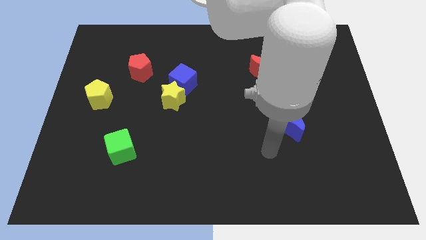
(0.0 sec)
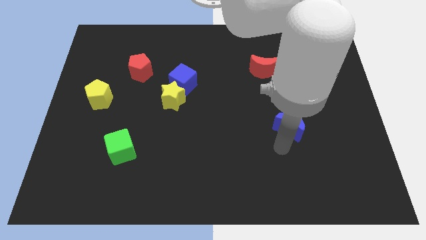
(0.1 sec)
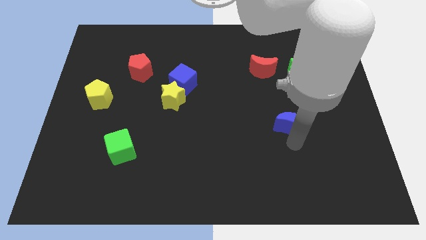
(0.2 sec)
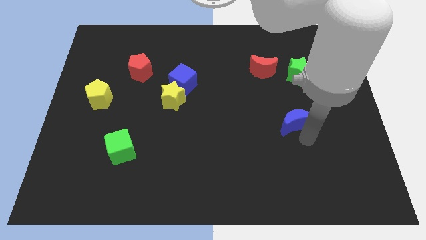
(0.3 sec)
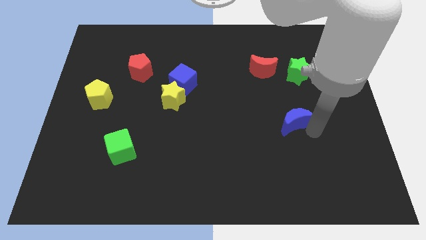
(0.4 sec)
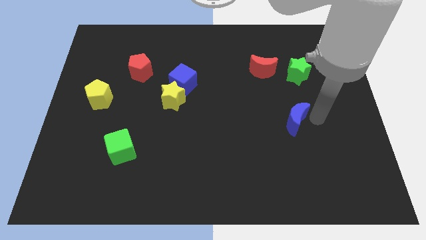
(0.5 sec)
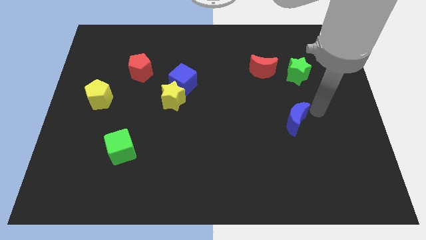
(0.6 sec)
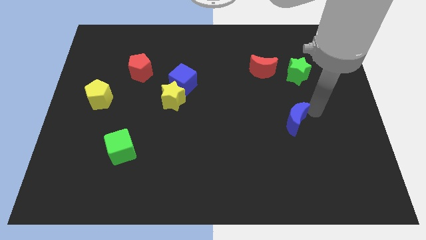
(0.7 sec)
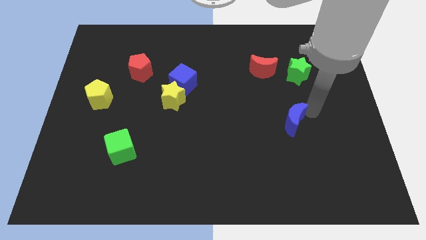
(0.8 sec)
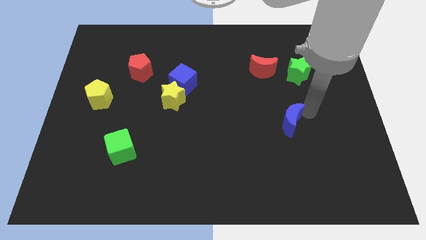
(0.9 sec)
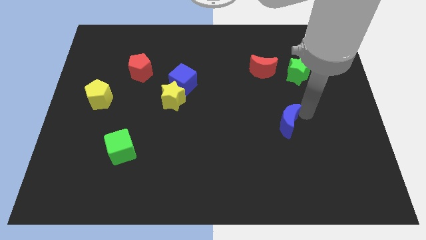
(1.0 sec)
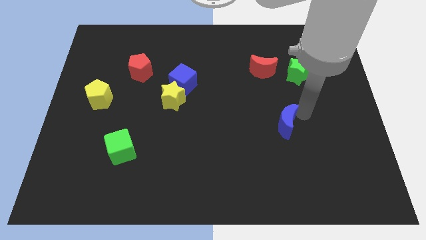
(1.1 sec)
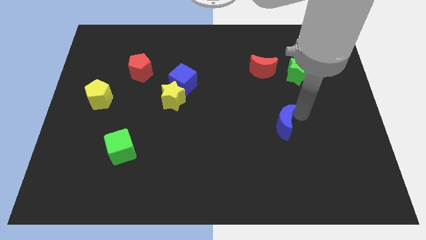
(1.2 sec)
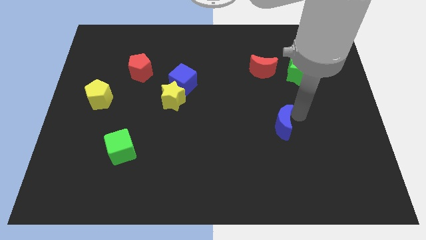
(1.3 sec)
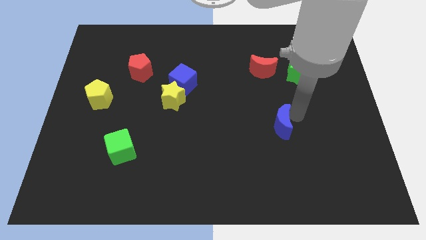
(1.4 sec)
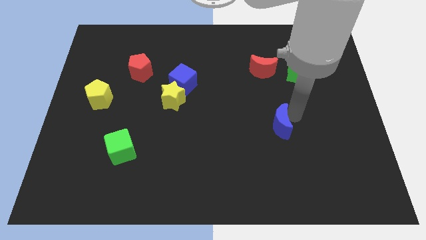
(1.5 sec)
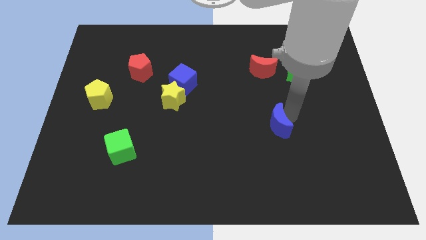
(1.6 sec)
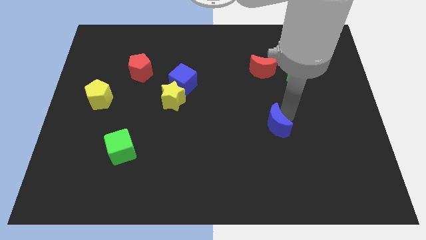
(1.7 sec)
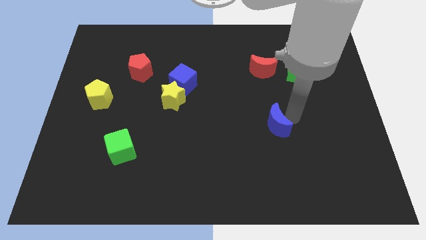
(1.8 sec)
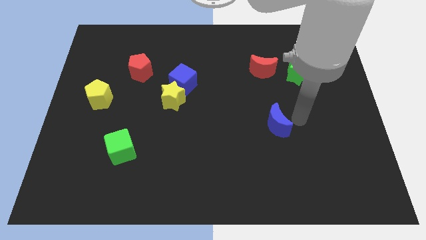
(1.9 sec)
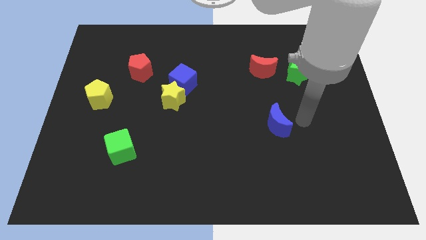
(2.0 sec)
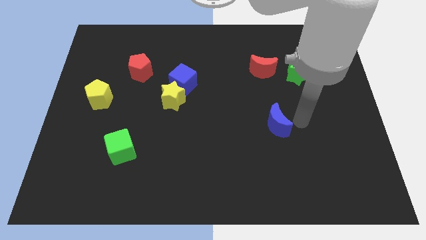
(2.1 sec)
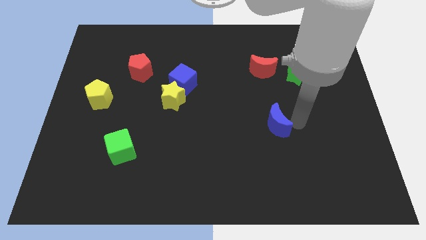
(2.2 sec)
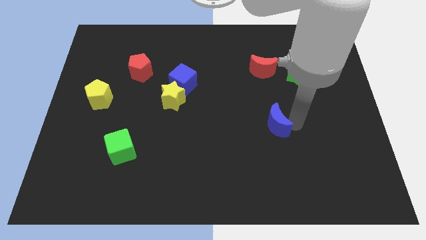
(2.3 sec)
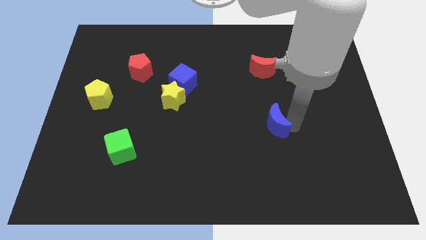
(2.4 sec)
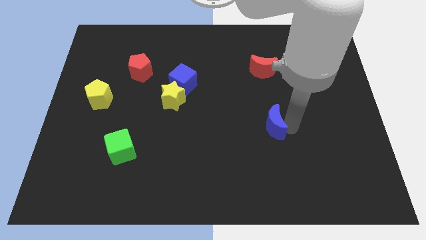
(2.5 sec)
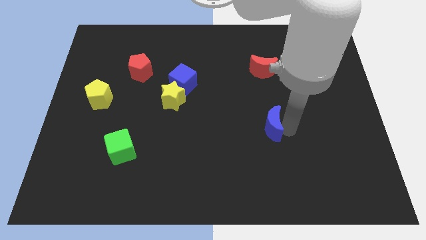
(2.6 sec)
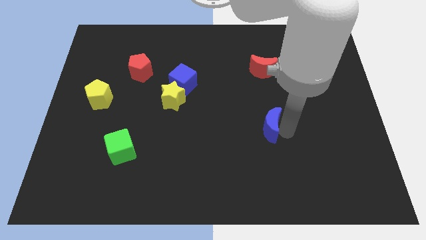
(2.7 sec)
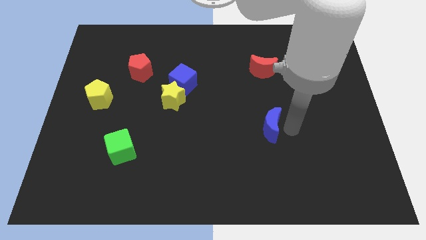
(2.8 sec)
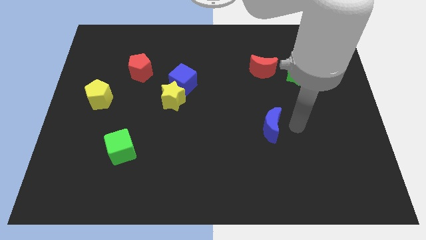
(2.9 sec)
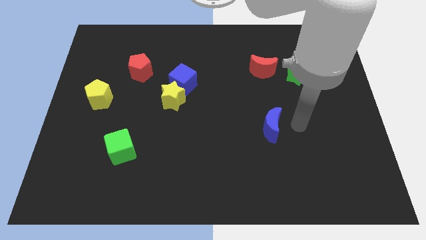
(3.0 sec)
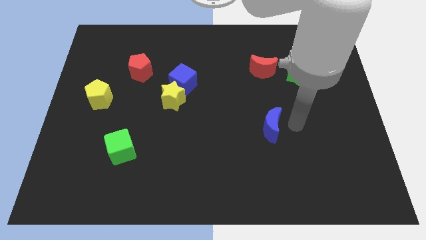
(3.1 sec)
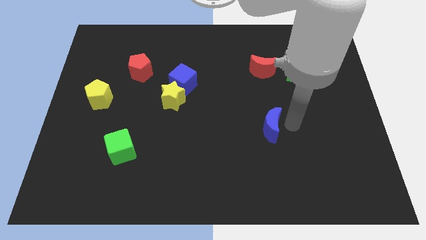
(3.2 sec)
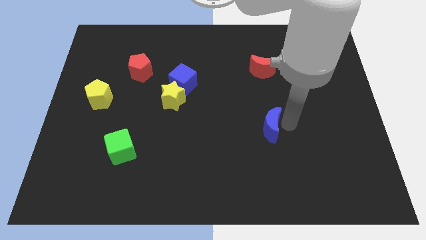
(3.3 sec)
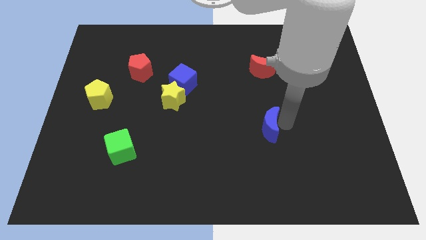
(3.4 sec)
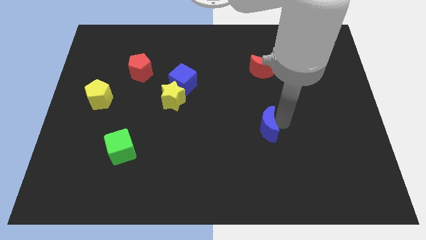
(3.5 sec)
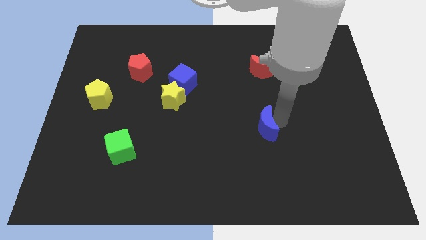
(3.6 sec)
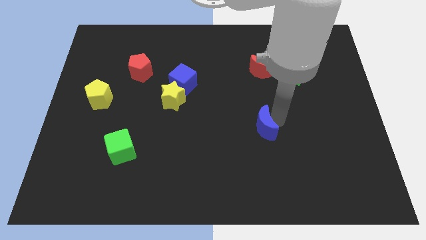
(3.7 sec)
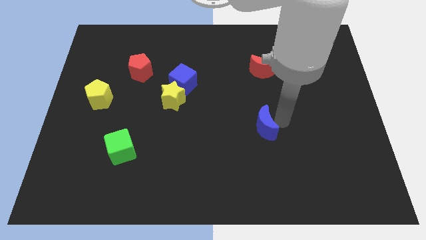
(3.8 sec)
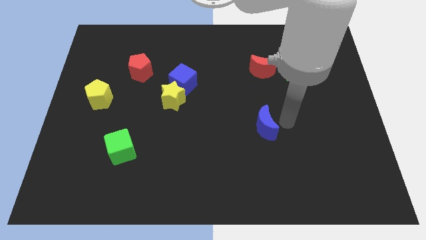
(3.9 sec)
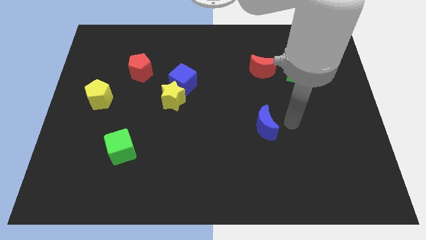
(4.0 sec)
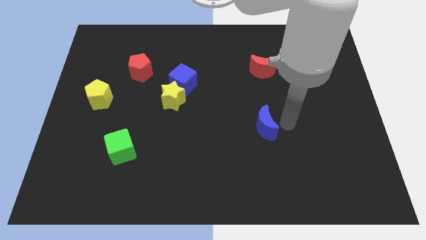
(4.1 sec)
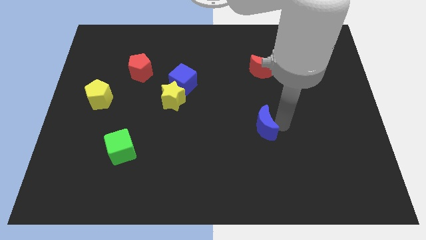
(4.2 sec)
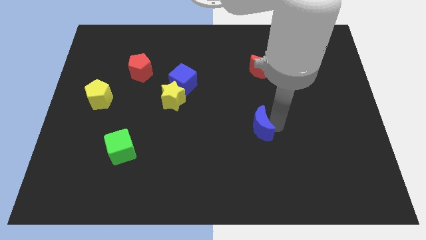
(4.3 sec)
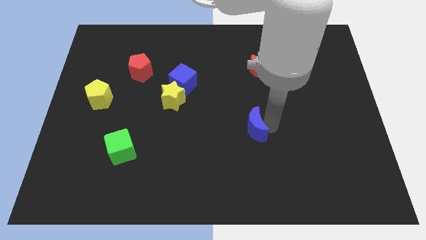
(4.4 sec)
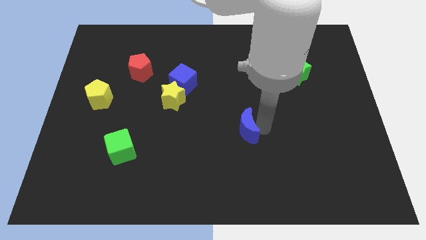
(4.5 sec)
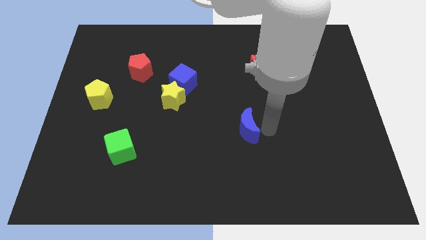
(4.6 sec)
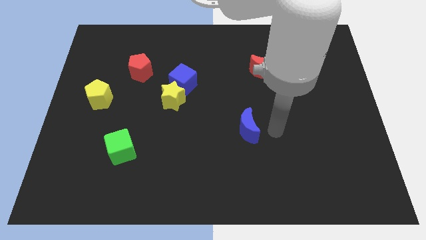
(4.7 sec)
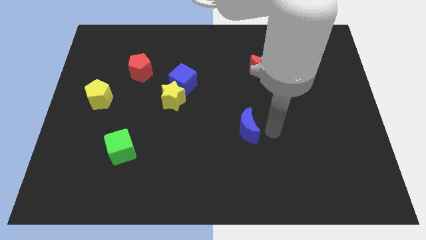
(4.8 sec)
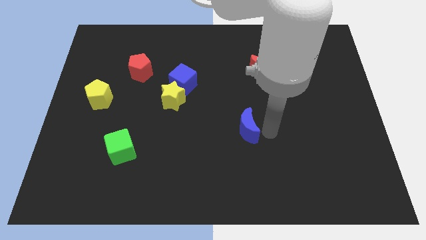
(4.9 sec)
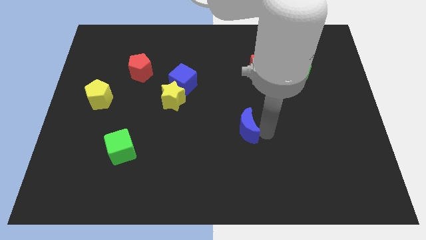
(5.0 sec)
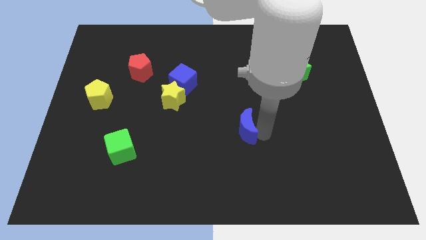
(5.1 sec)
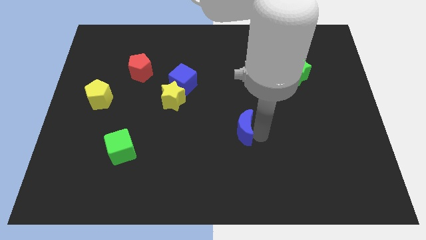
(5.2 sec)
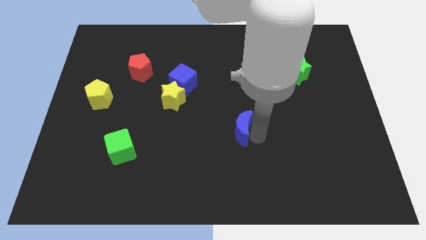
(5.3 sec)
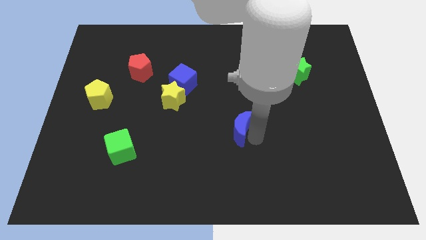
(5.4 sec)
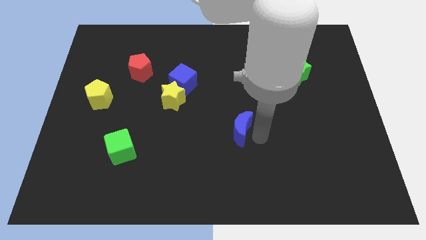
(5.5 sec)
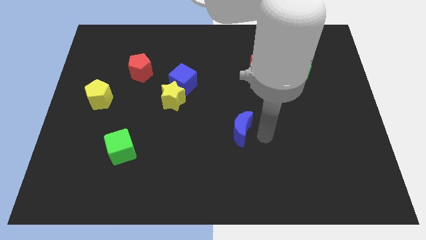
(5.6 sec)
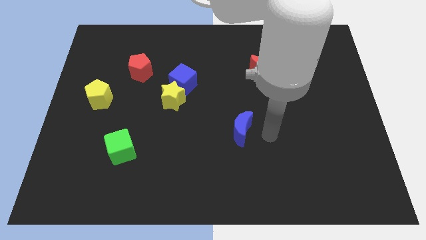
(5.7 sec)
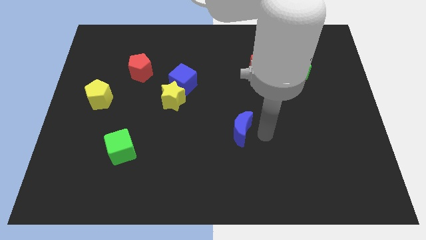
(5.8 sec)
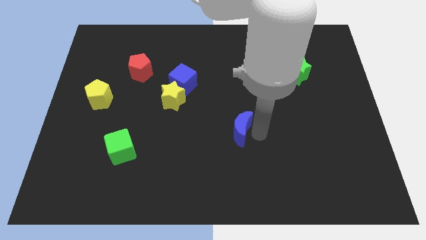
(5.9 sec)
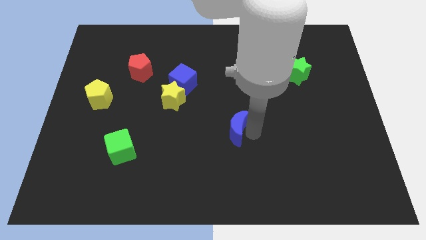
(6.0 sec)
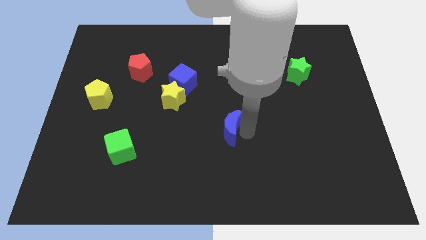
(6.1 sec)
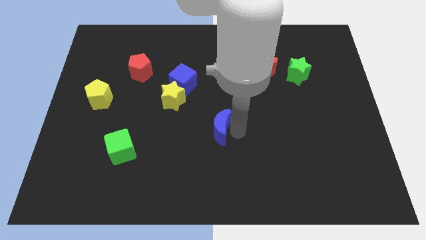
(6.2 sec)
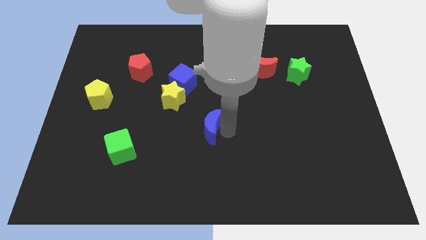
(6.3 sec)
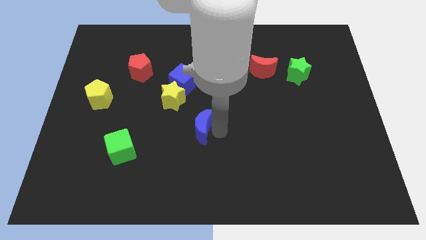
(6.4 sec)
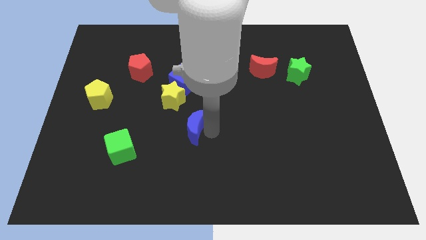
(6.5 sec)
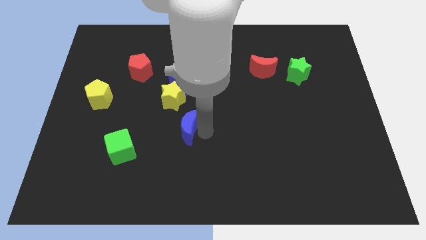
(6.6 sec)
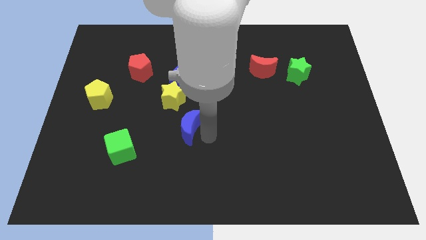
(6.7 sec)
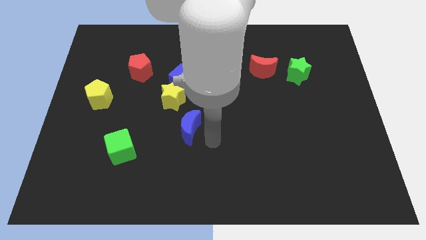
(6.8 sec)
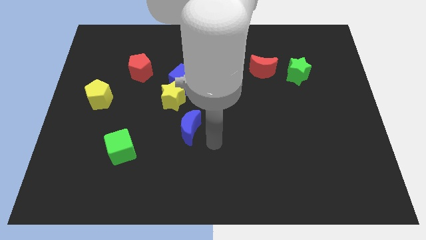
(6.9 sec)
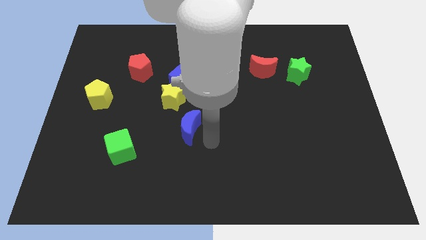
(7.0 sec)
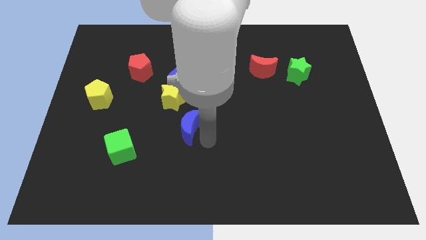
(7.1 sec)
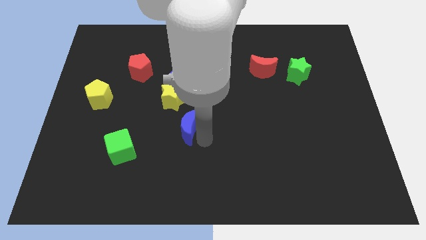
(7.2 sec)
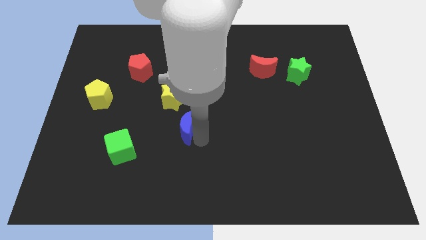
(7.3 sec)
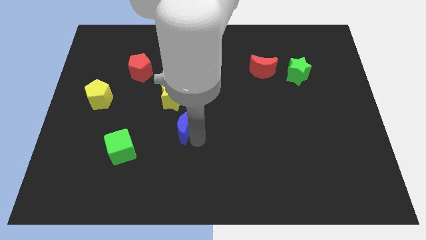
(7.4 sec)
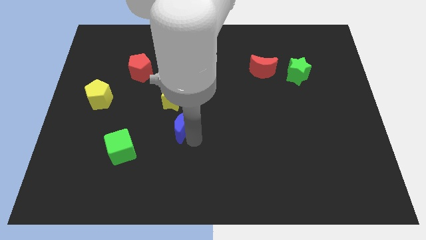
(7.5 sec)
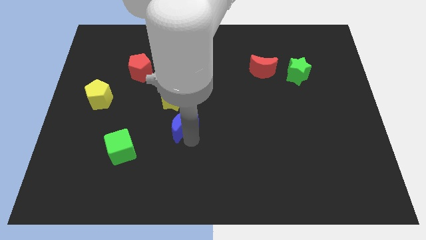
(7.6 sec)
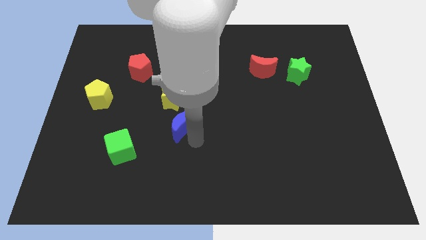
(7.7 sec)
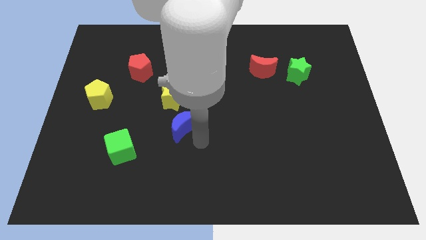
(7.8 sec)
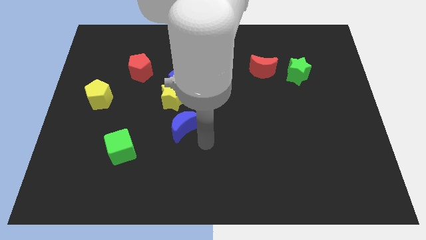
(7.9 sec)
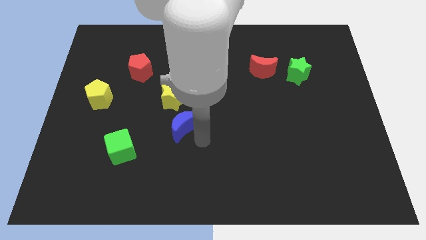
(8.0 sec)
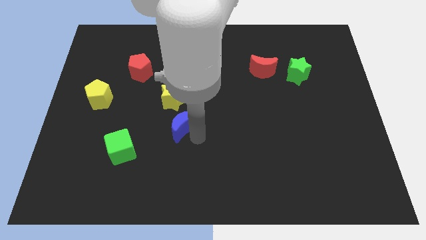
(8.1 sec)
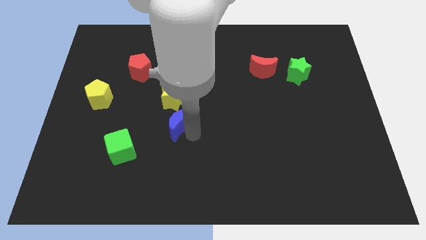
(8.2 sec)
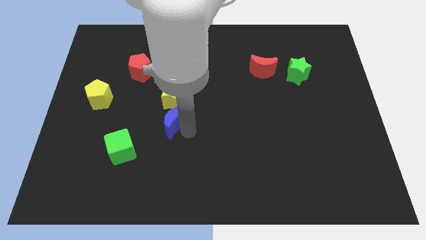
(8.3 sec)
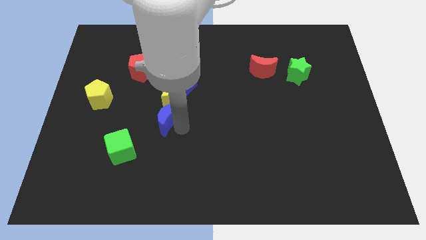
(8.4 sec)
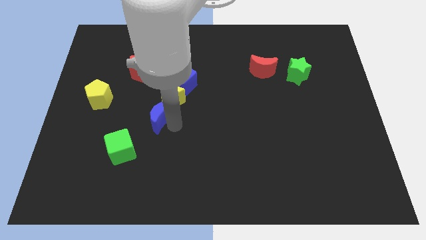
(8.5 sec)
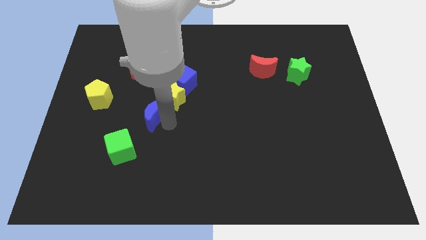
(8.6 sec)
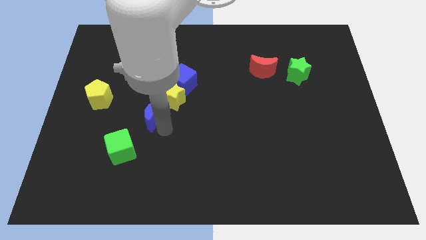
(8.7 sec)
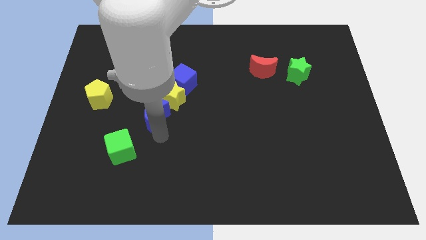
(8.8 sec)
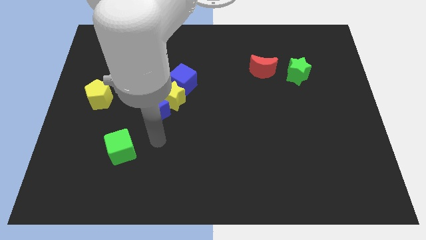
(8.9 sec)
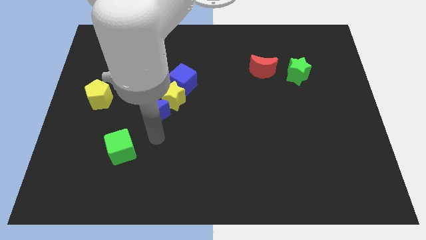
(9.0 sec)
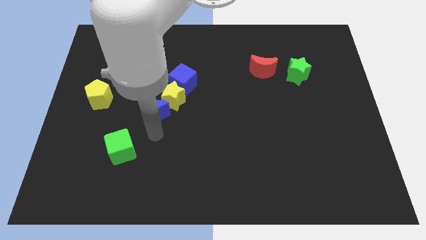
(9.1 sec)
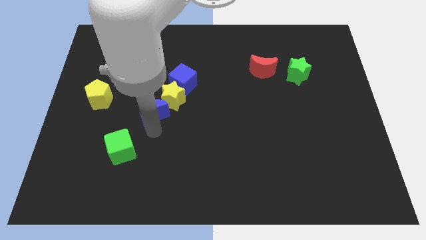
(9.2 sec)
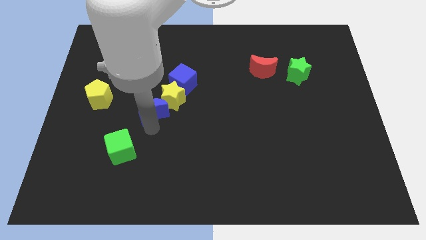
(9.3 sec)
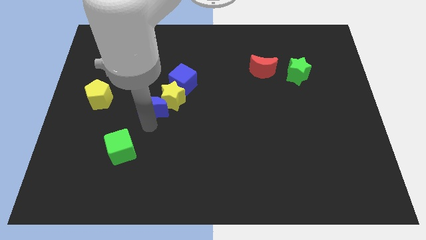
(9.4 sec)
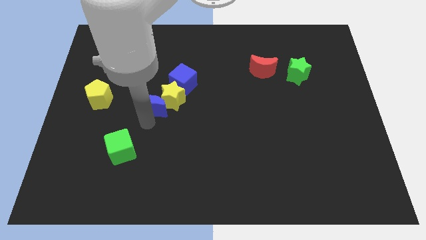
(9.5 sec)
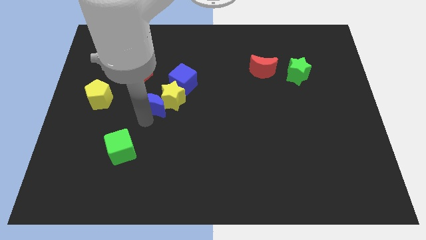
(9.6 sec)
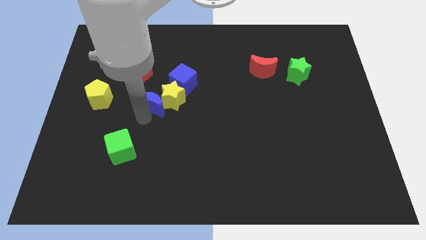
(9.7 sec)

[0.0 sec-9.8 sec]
slide the blue moon to the top left side of the yellow star
